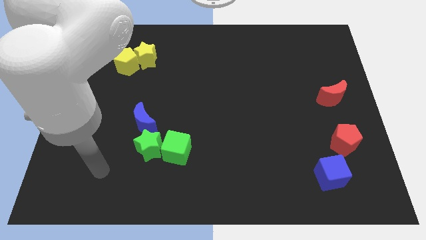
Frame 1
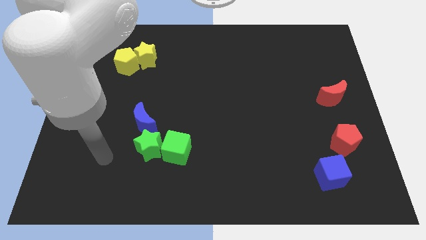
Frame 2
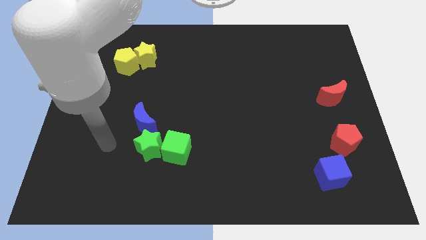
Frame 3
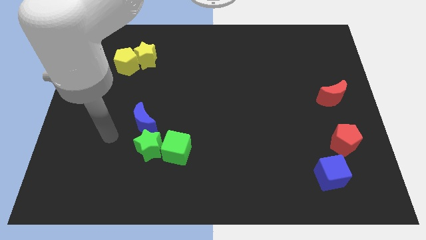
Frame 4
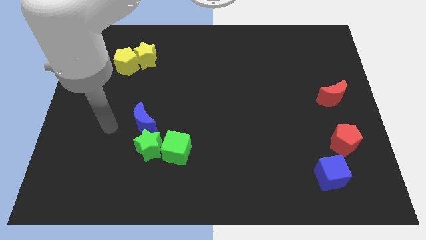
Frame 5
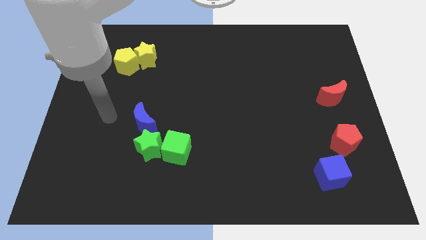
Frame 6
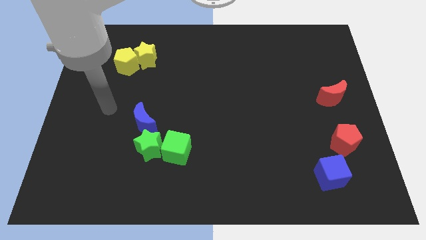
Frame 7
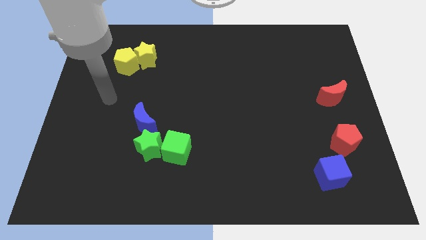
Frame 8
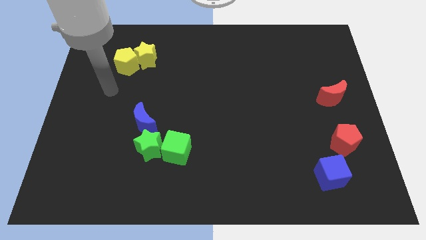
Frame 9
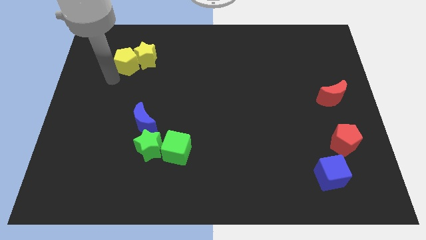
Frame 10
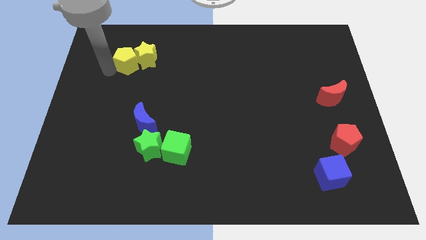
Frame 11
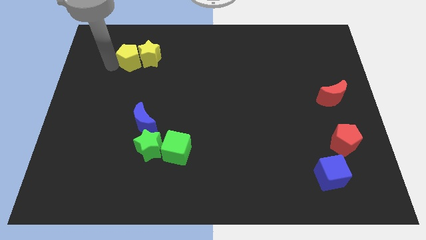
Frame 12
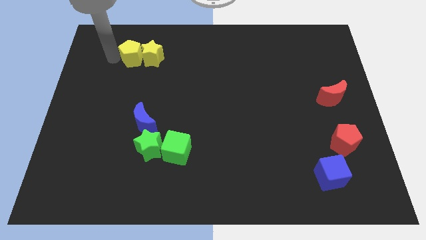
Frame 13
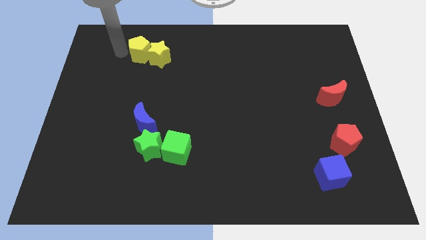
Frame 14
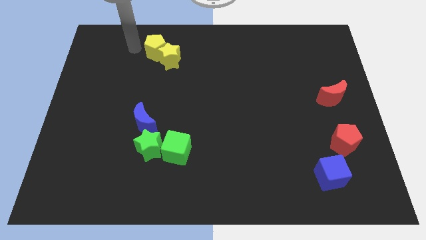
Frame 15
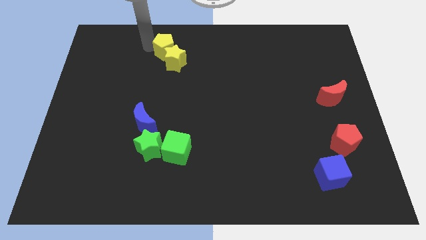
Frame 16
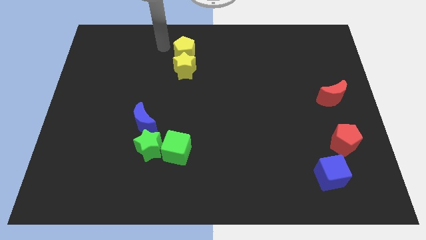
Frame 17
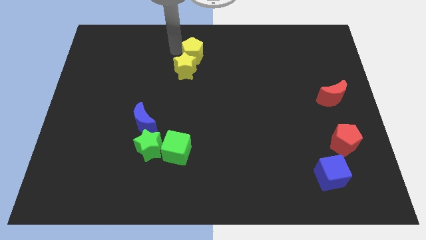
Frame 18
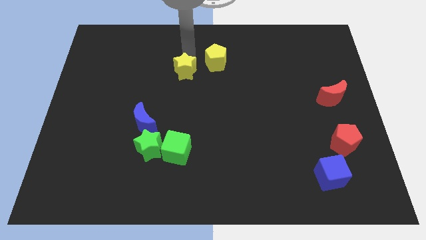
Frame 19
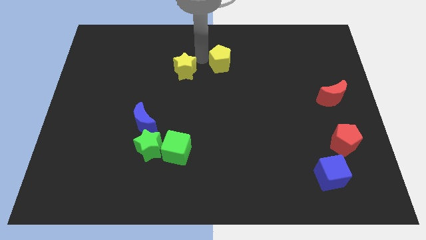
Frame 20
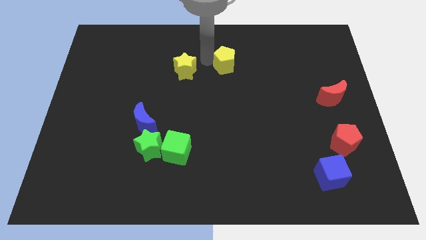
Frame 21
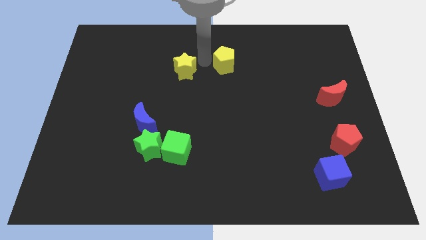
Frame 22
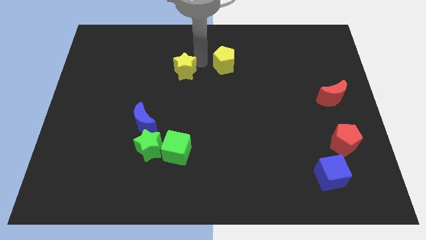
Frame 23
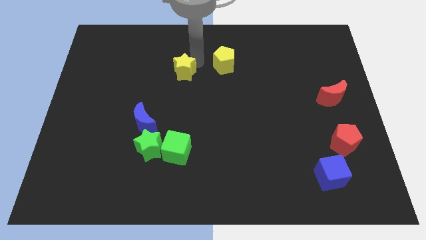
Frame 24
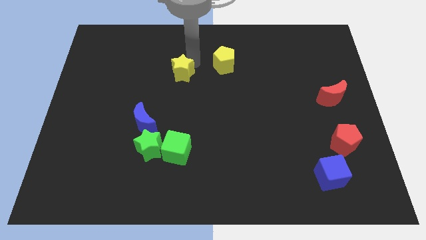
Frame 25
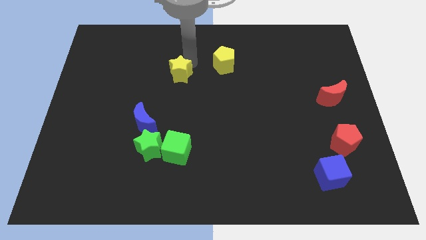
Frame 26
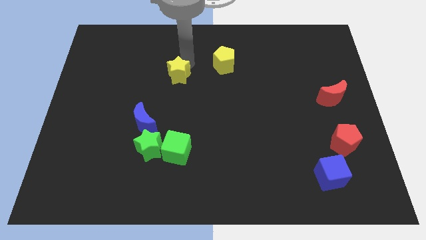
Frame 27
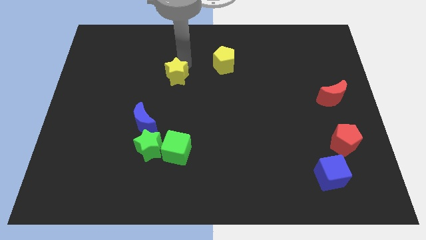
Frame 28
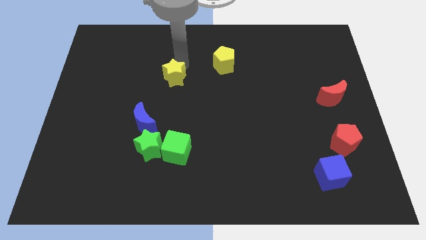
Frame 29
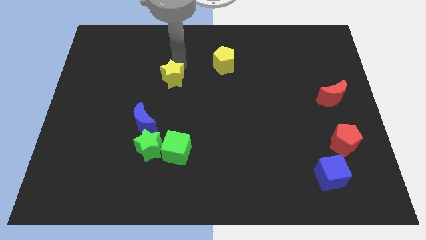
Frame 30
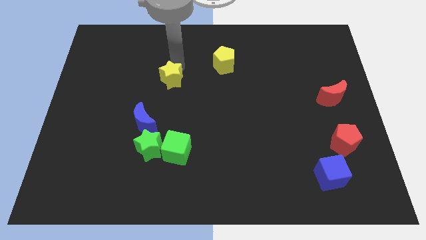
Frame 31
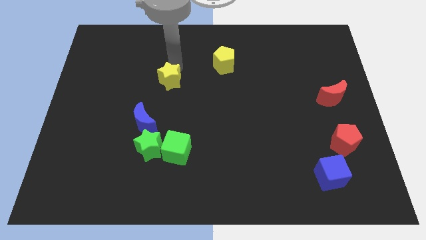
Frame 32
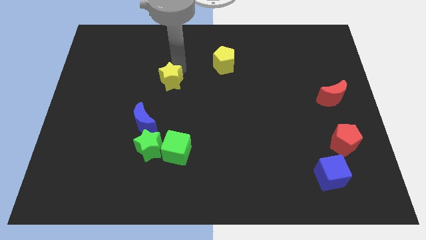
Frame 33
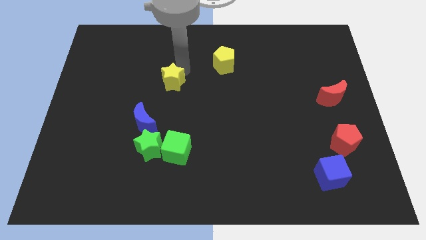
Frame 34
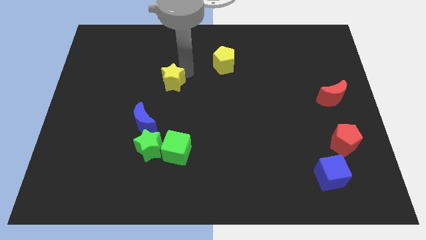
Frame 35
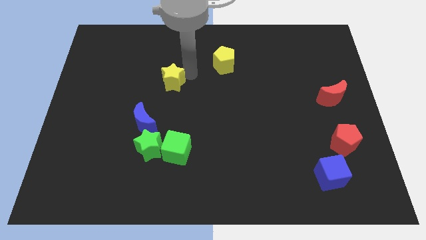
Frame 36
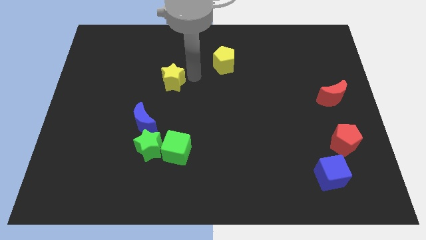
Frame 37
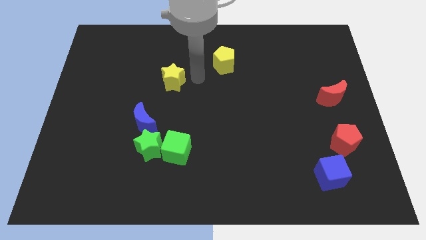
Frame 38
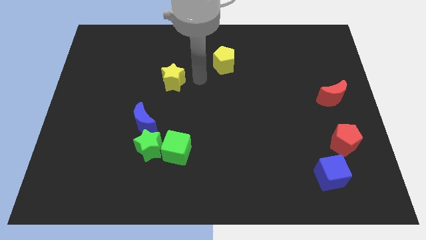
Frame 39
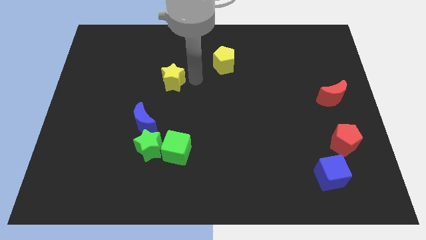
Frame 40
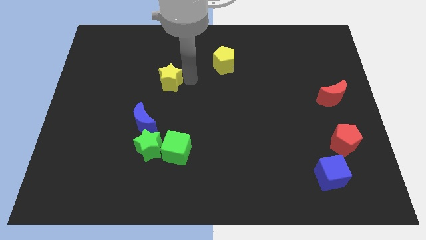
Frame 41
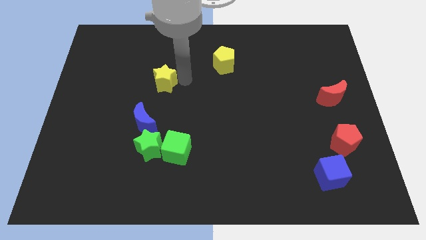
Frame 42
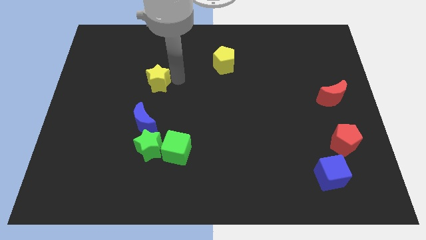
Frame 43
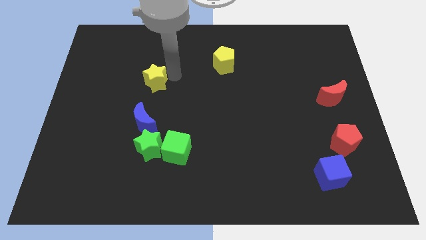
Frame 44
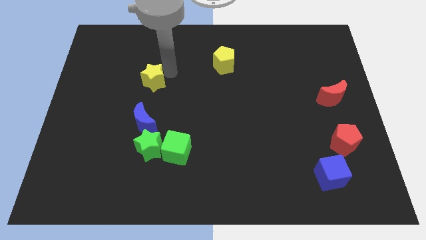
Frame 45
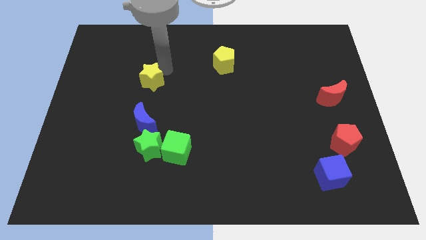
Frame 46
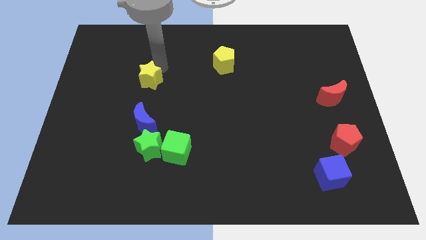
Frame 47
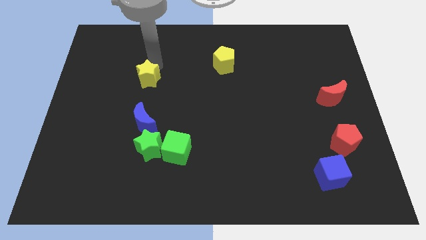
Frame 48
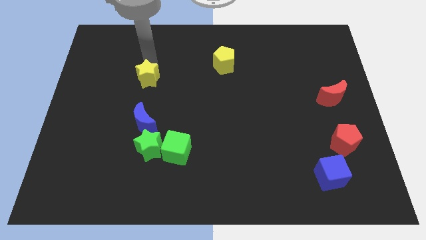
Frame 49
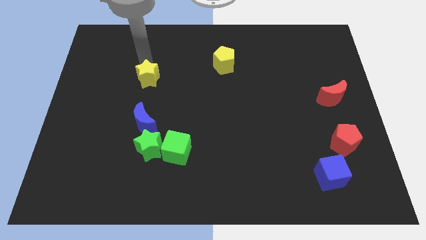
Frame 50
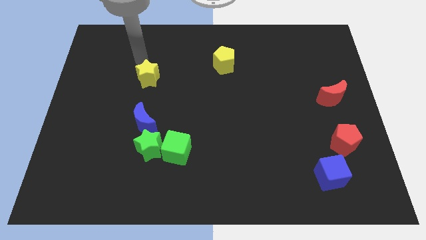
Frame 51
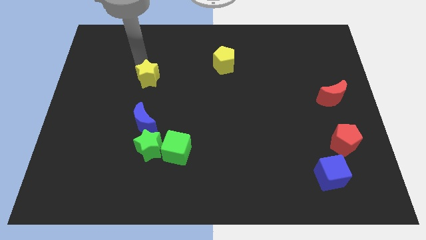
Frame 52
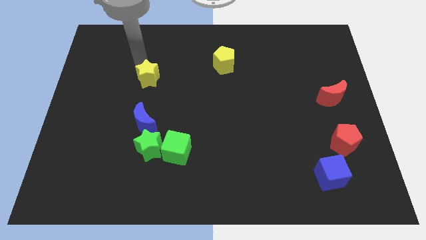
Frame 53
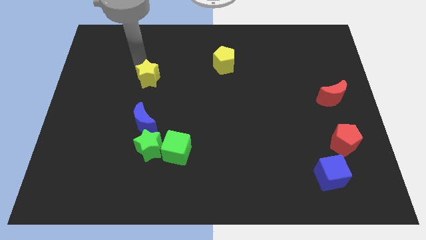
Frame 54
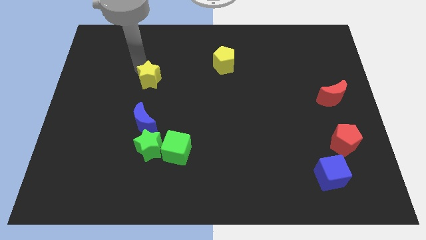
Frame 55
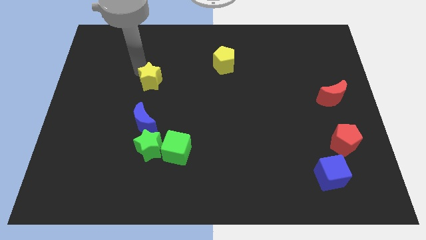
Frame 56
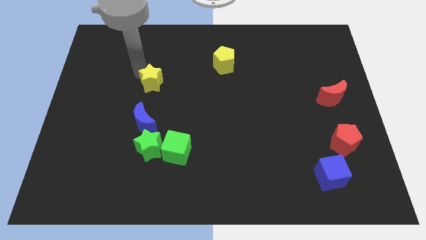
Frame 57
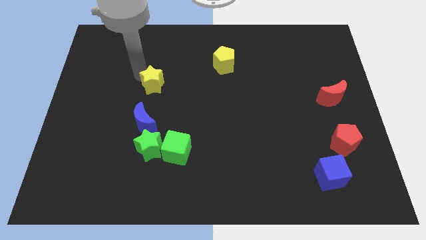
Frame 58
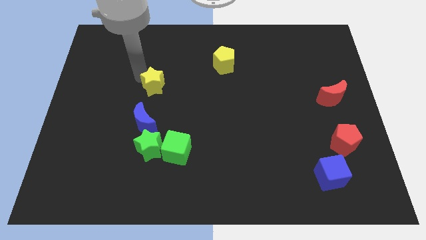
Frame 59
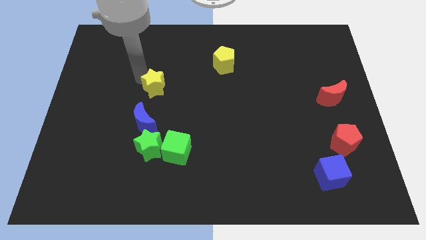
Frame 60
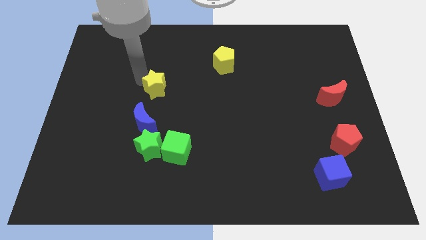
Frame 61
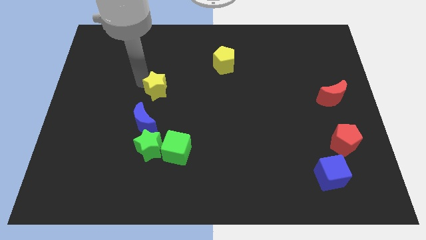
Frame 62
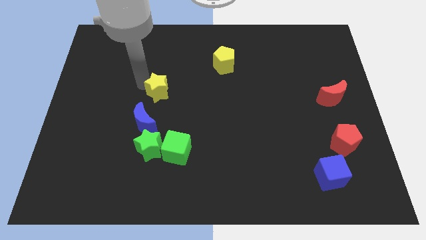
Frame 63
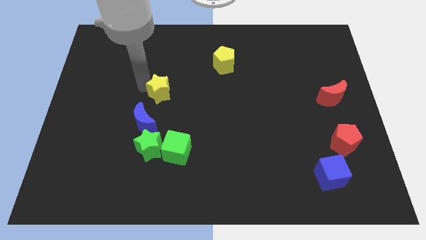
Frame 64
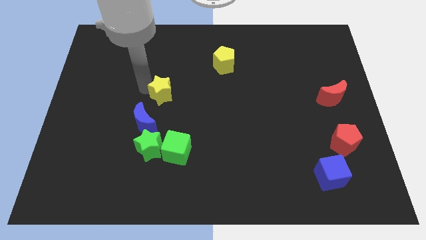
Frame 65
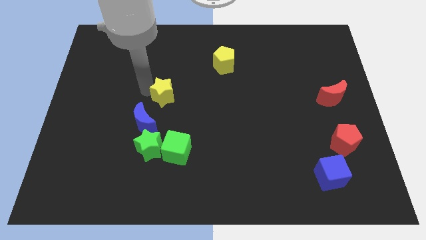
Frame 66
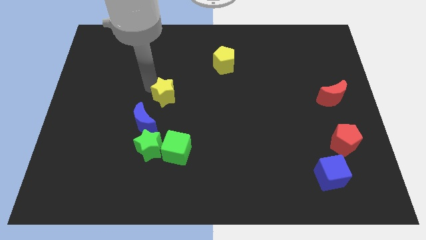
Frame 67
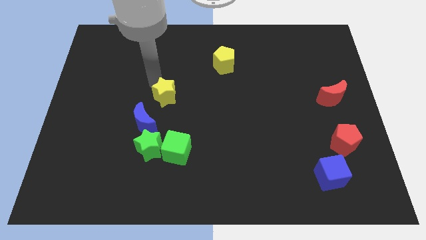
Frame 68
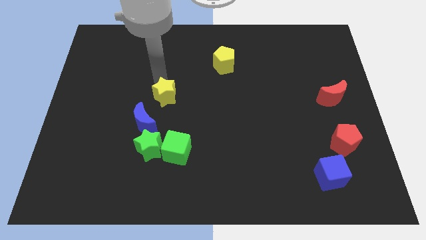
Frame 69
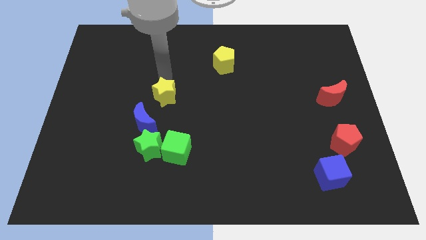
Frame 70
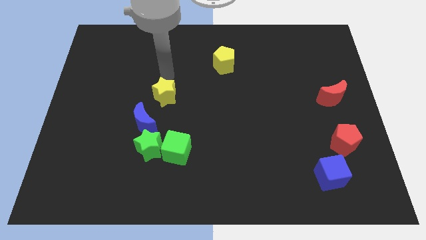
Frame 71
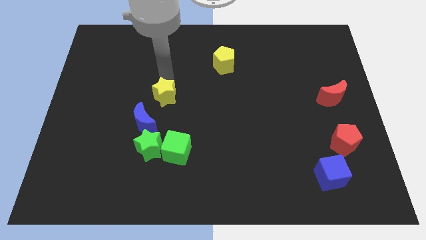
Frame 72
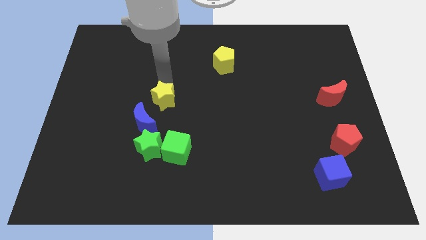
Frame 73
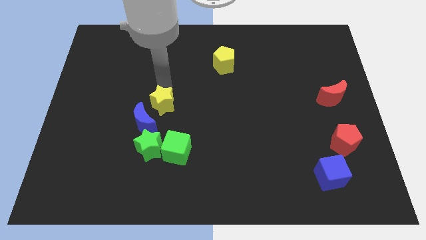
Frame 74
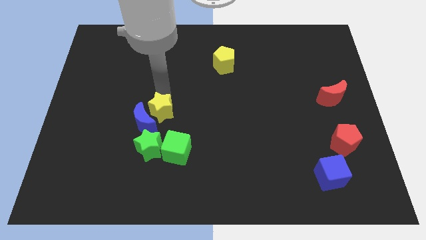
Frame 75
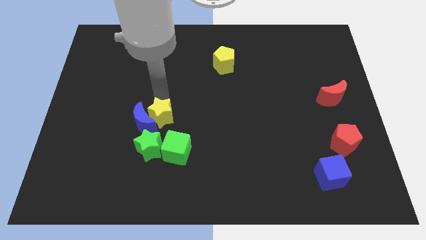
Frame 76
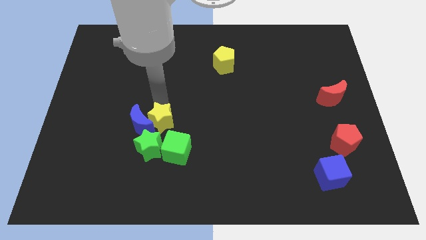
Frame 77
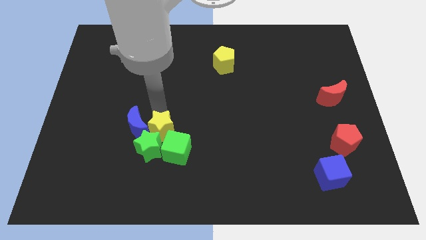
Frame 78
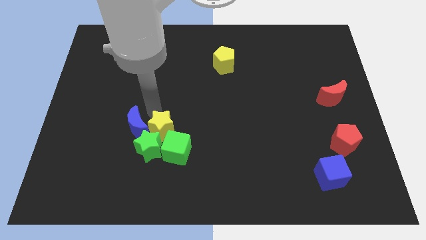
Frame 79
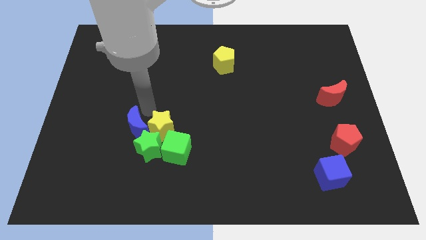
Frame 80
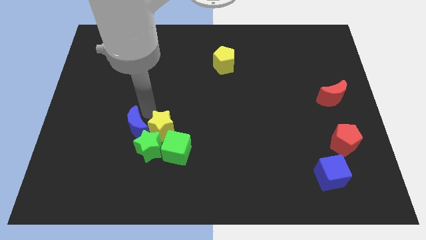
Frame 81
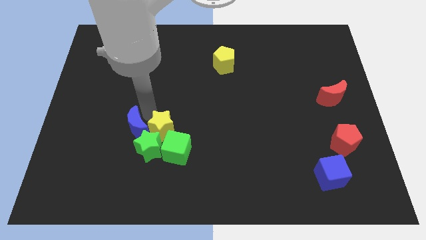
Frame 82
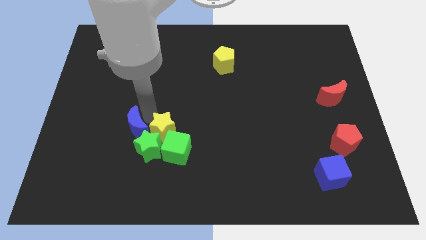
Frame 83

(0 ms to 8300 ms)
slide the yellow star to the green cube
